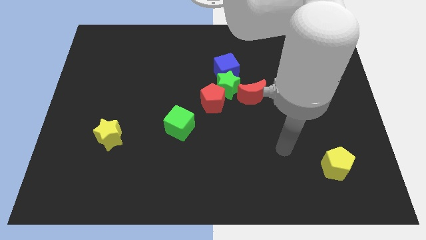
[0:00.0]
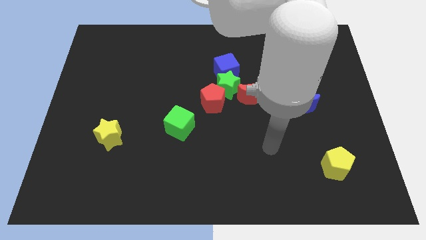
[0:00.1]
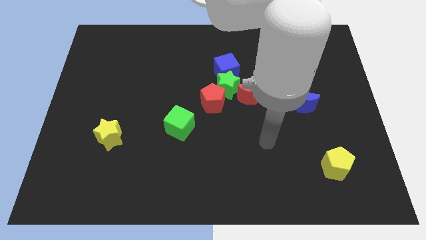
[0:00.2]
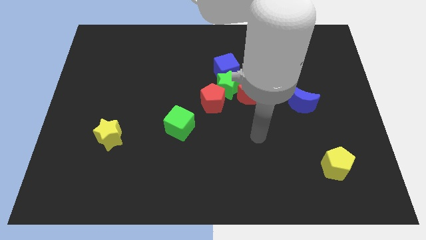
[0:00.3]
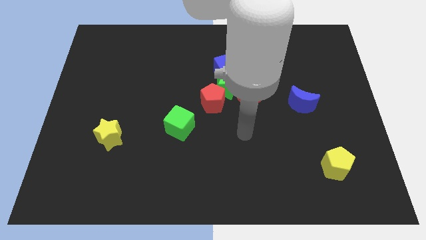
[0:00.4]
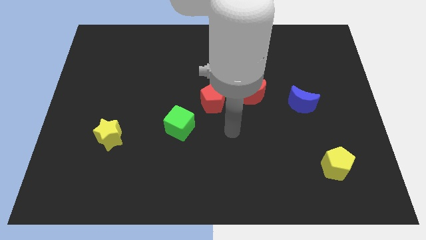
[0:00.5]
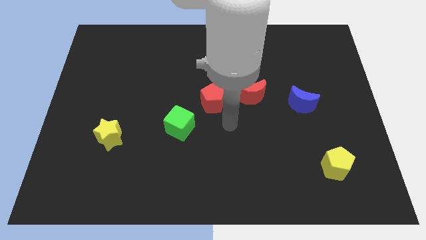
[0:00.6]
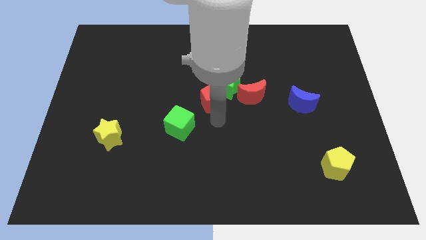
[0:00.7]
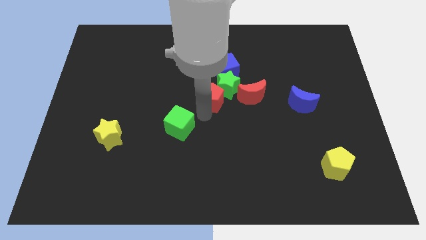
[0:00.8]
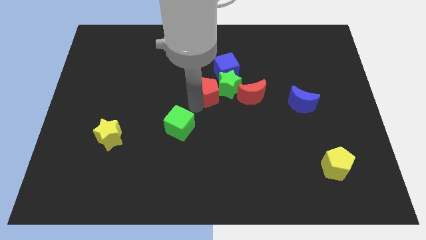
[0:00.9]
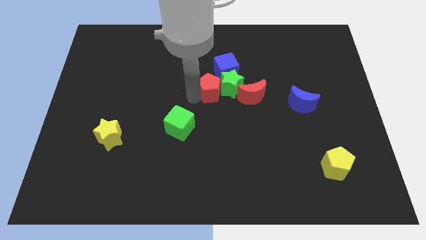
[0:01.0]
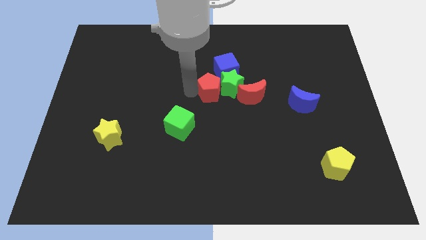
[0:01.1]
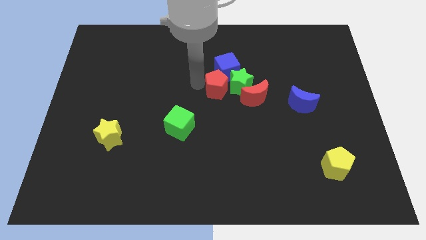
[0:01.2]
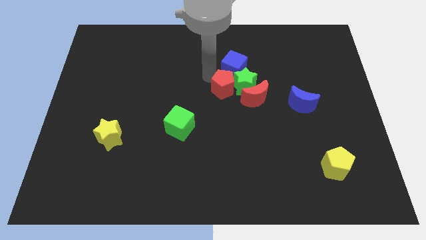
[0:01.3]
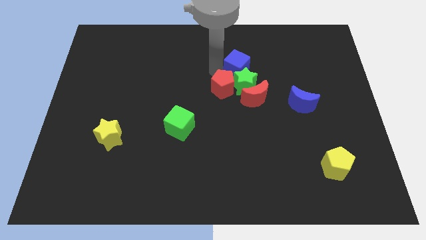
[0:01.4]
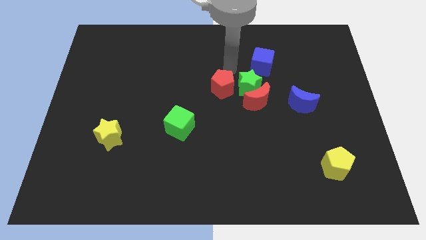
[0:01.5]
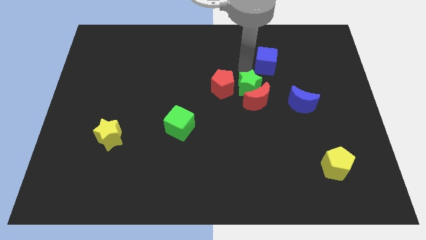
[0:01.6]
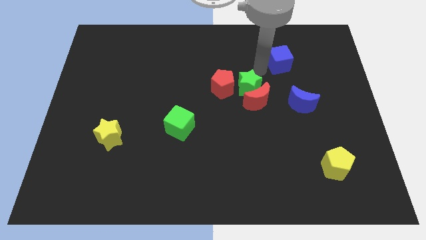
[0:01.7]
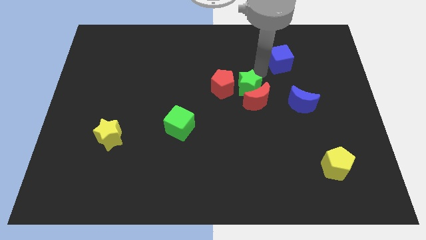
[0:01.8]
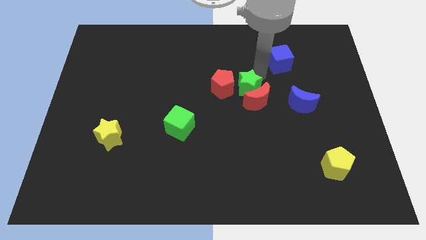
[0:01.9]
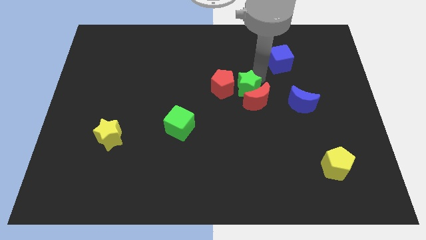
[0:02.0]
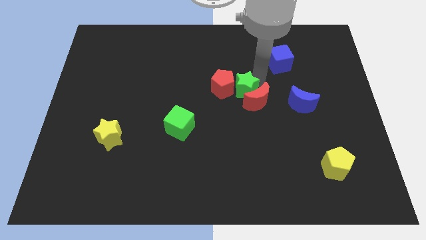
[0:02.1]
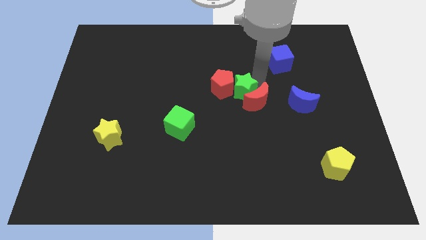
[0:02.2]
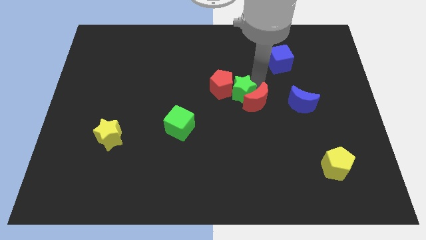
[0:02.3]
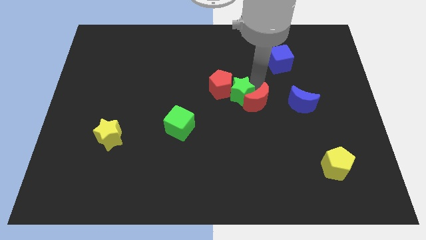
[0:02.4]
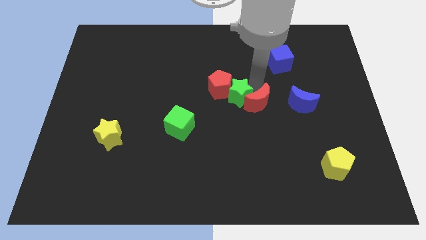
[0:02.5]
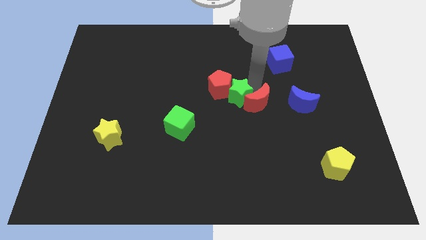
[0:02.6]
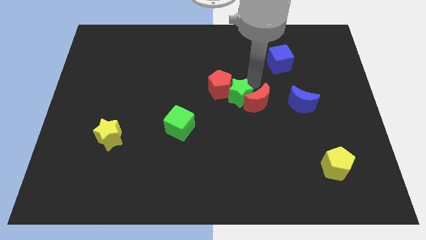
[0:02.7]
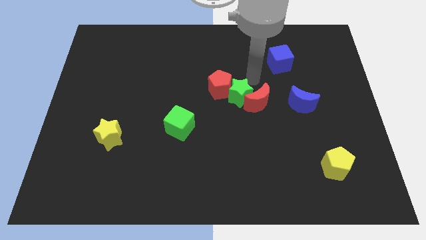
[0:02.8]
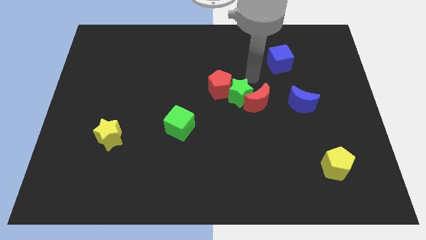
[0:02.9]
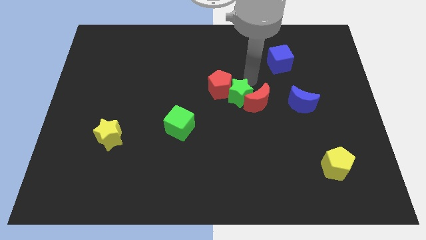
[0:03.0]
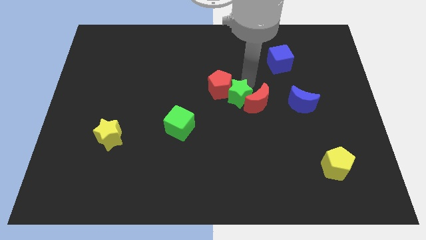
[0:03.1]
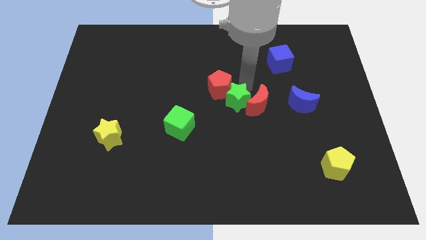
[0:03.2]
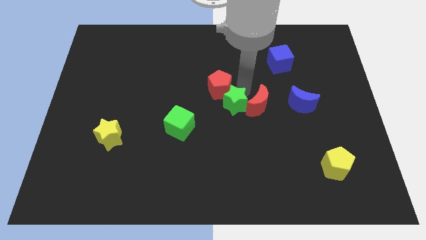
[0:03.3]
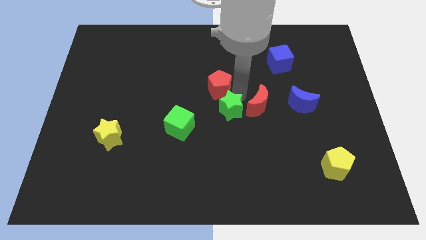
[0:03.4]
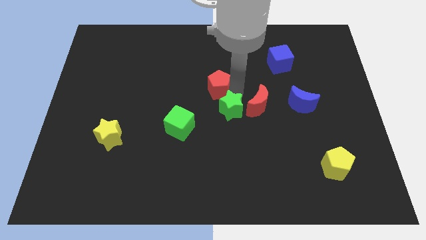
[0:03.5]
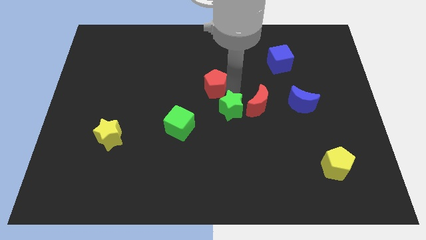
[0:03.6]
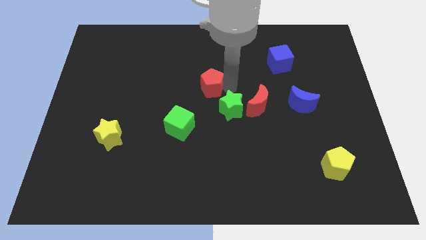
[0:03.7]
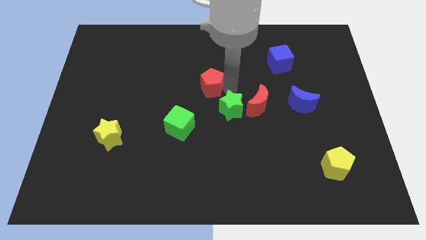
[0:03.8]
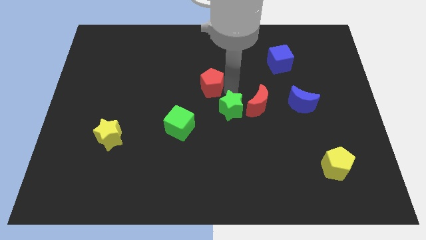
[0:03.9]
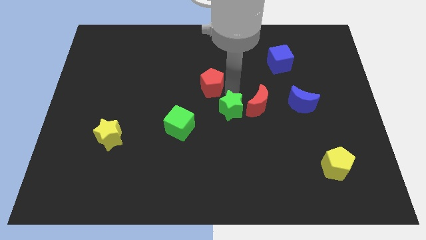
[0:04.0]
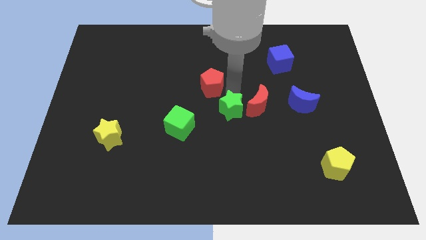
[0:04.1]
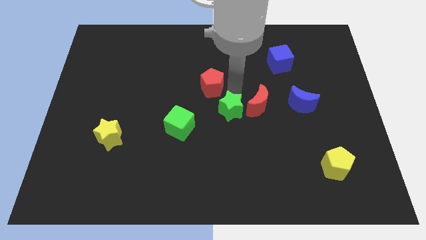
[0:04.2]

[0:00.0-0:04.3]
slightly push the green star down

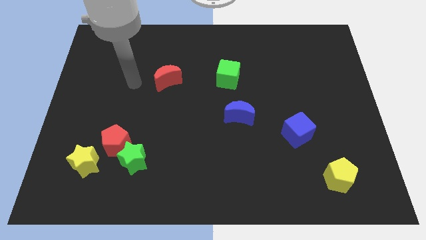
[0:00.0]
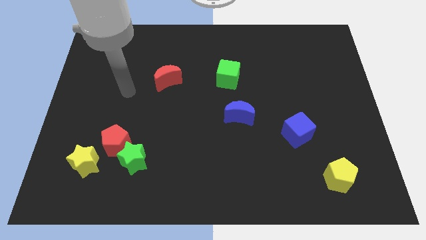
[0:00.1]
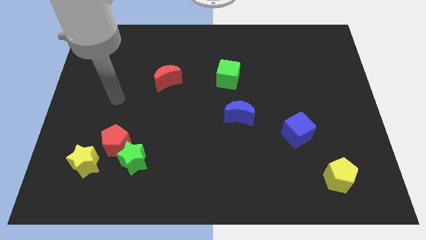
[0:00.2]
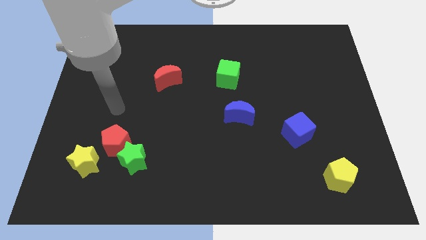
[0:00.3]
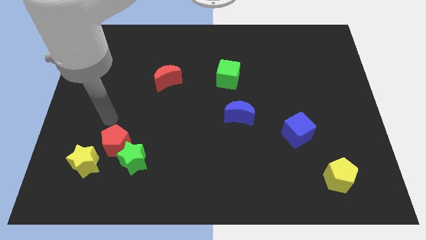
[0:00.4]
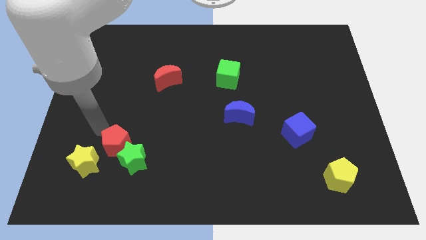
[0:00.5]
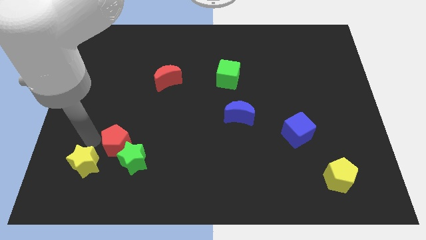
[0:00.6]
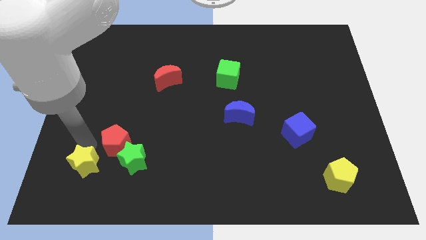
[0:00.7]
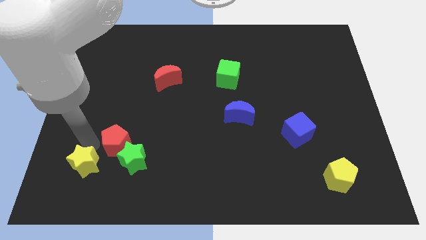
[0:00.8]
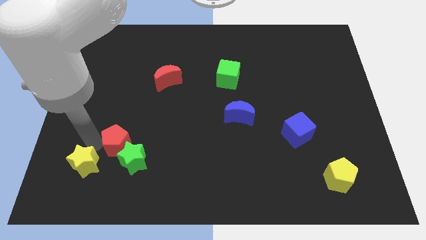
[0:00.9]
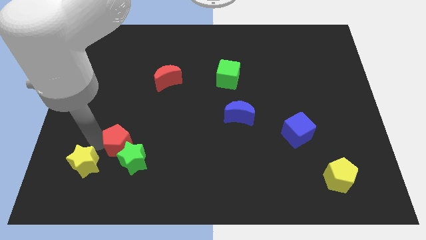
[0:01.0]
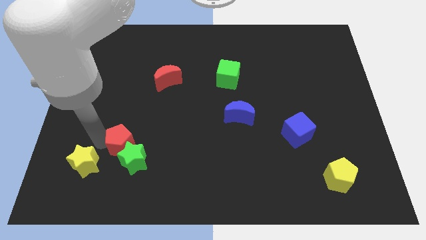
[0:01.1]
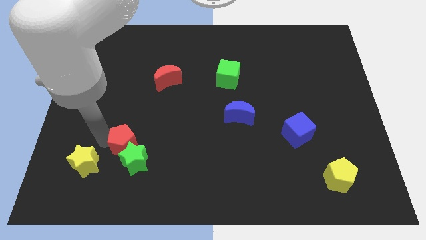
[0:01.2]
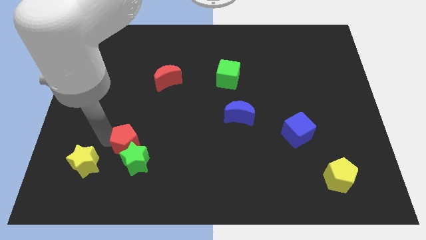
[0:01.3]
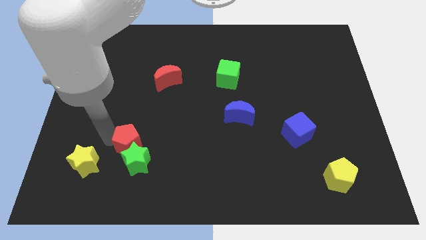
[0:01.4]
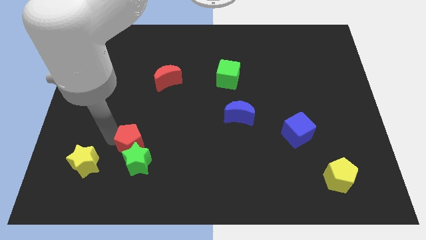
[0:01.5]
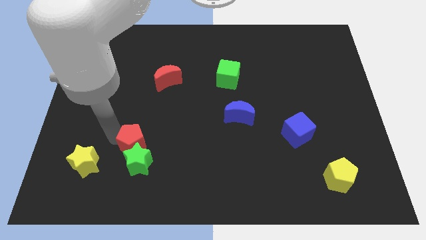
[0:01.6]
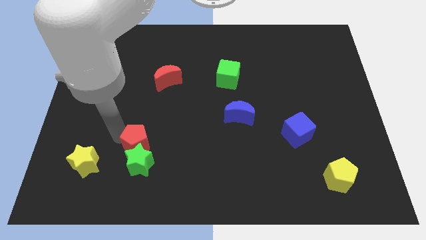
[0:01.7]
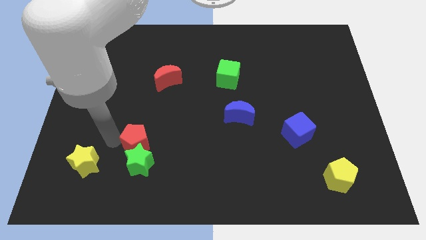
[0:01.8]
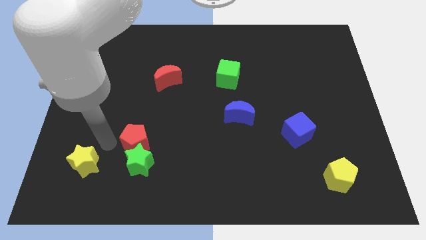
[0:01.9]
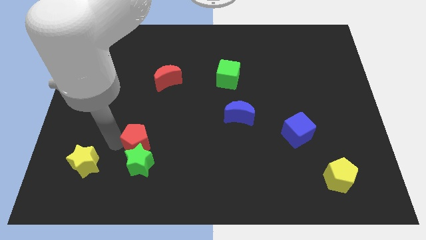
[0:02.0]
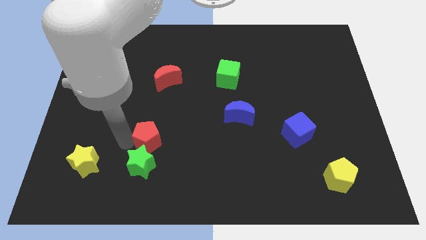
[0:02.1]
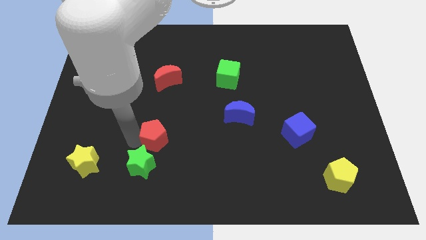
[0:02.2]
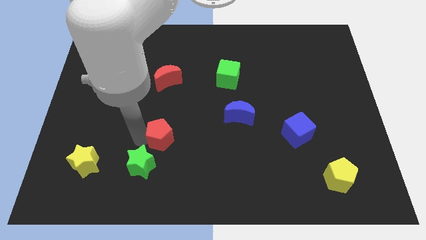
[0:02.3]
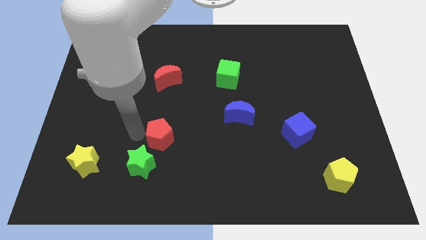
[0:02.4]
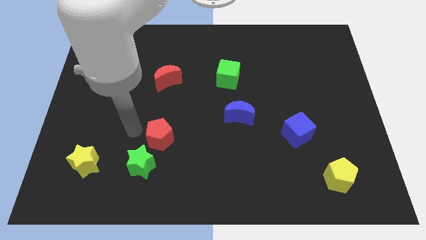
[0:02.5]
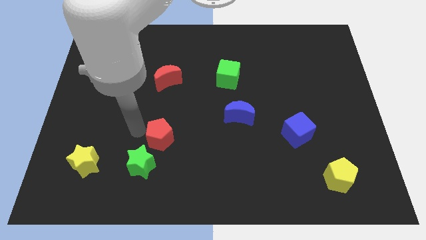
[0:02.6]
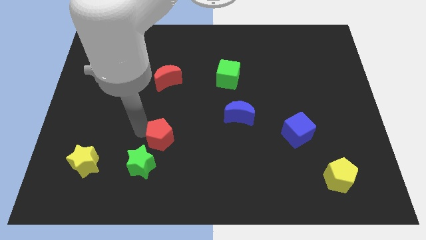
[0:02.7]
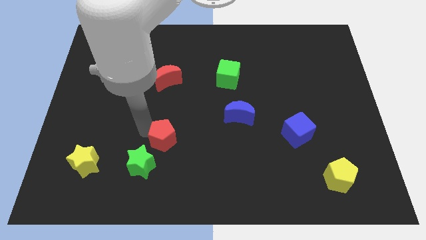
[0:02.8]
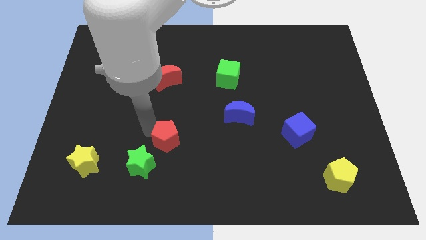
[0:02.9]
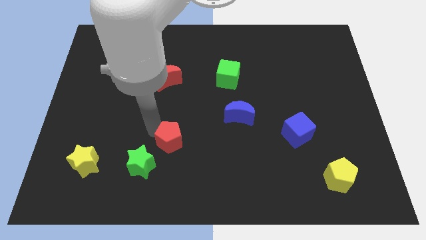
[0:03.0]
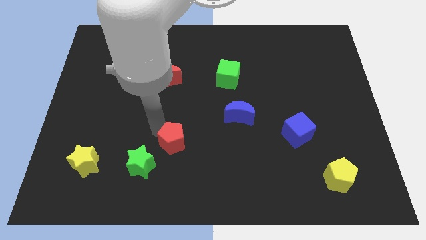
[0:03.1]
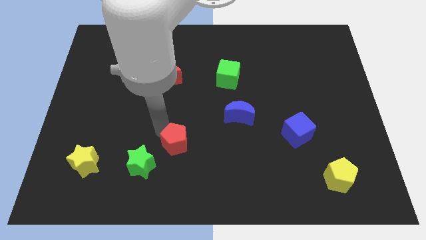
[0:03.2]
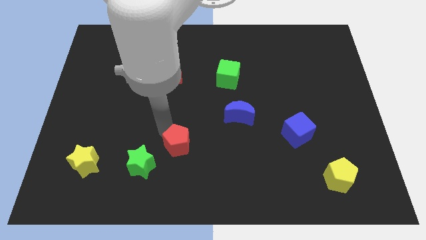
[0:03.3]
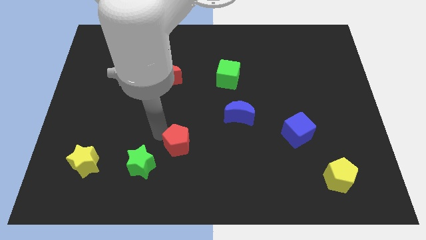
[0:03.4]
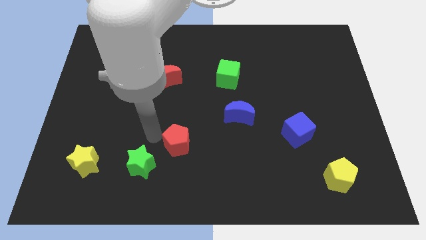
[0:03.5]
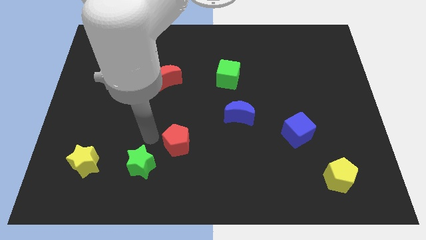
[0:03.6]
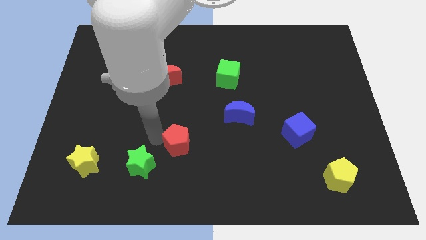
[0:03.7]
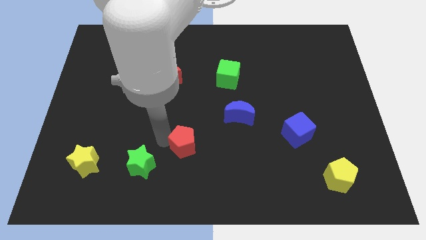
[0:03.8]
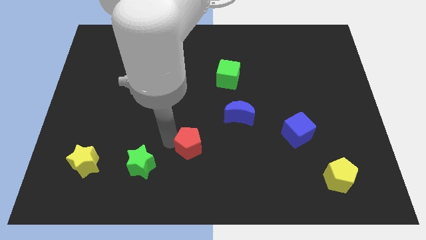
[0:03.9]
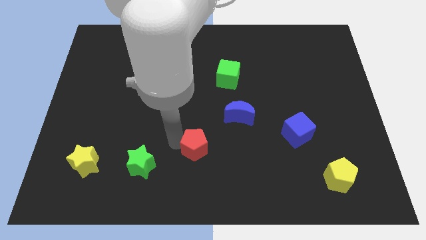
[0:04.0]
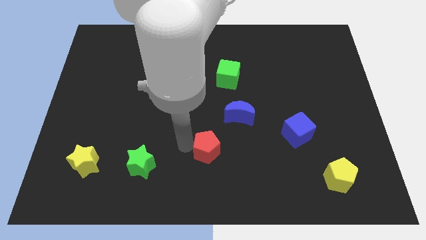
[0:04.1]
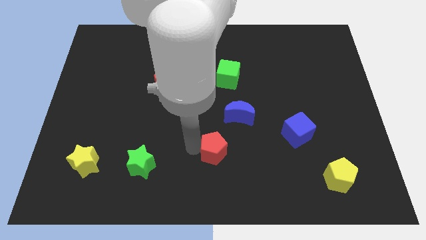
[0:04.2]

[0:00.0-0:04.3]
push the red pentagon right
